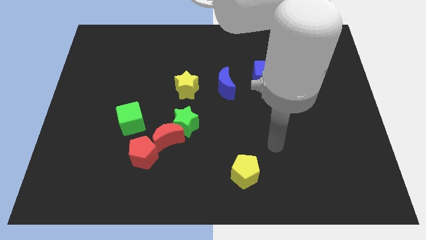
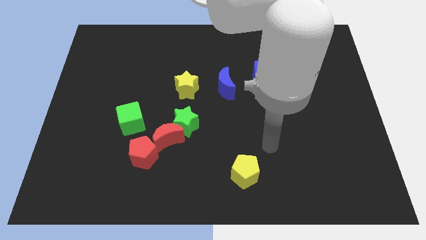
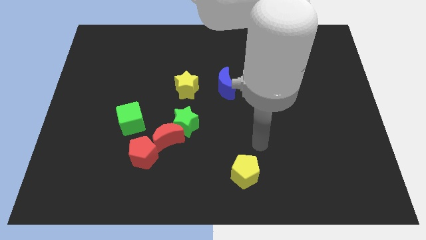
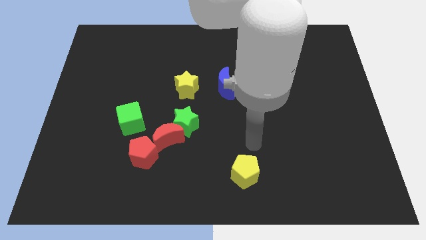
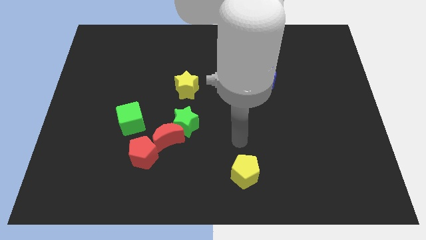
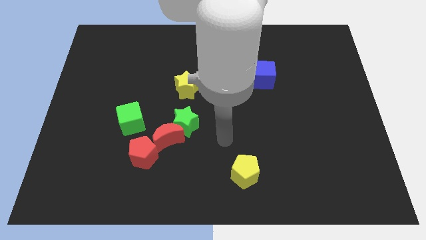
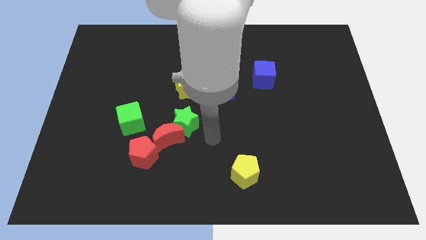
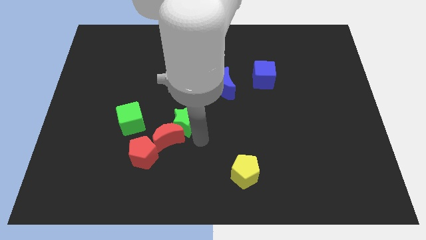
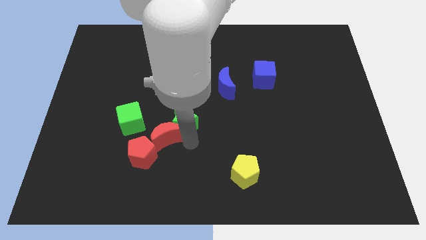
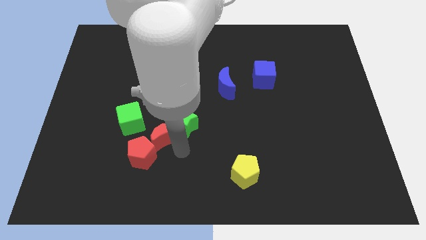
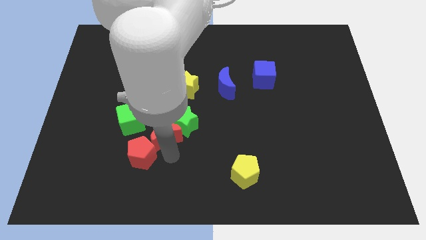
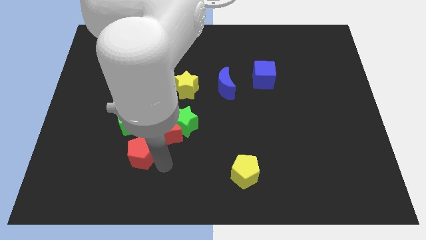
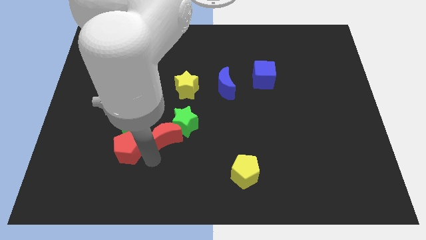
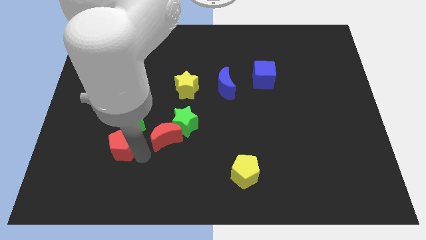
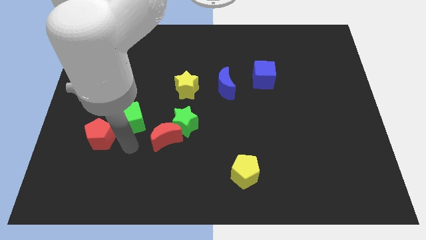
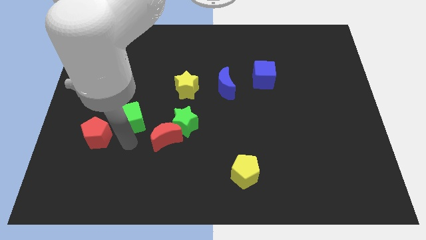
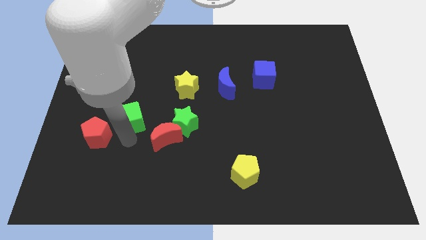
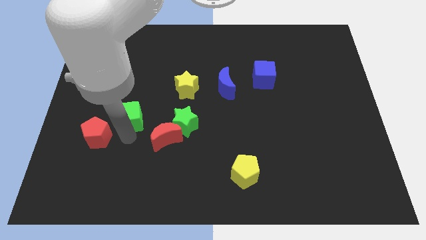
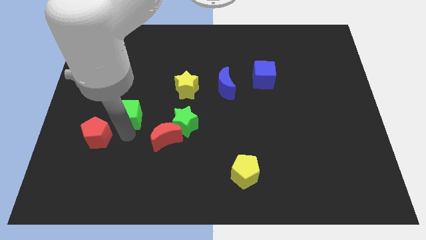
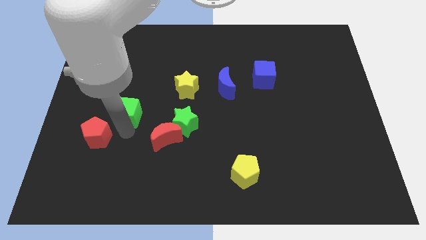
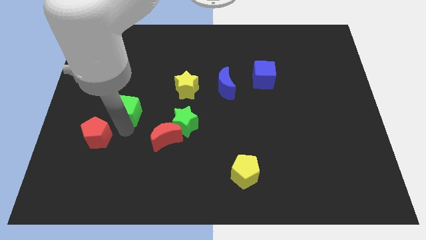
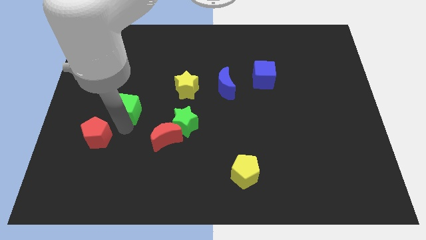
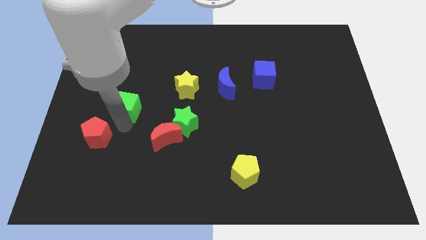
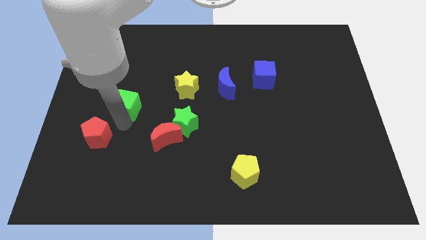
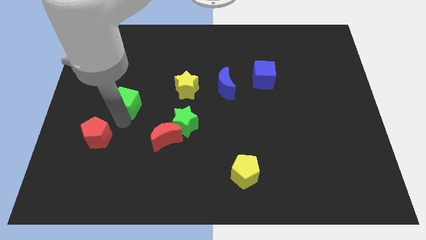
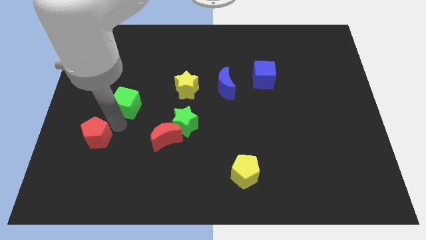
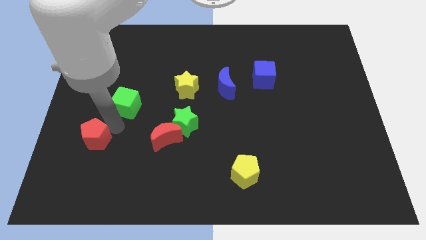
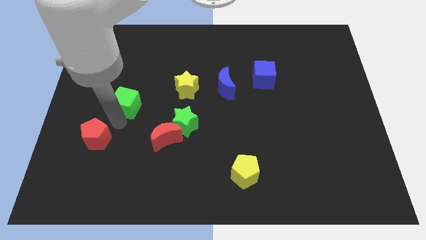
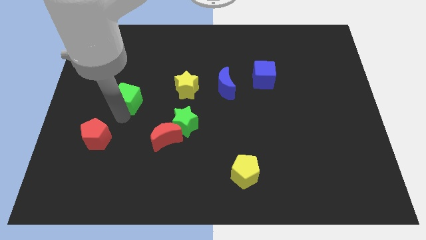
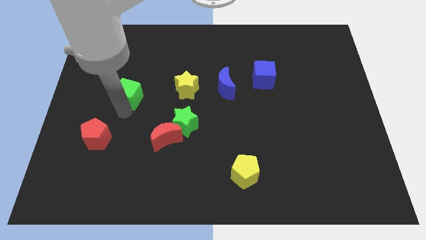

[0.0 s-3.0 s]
push the green cube somewhat upwards

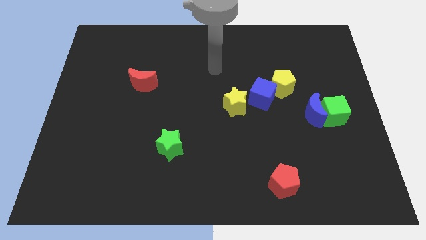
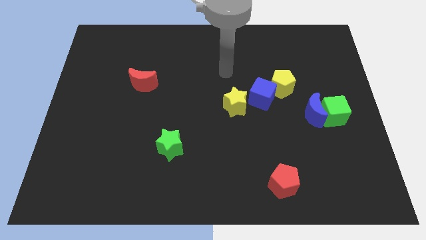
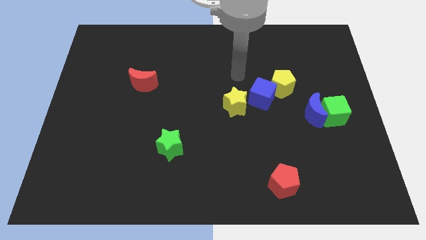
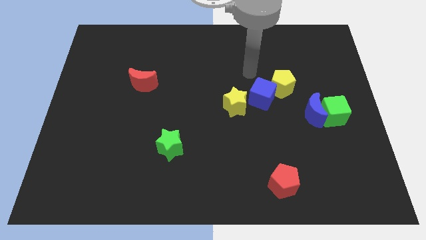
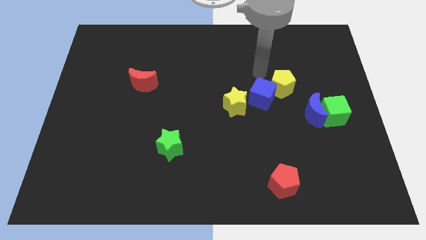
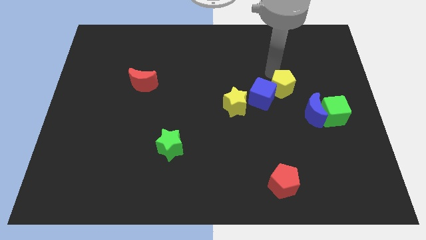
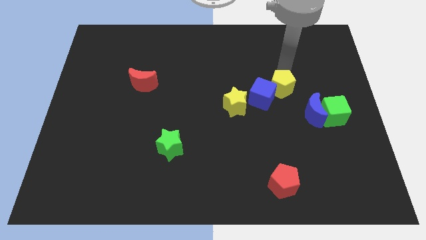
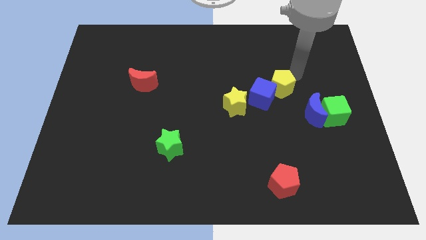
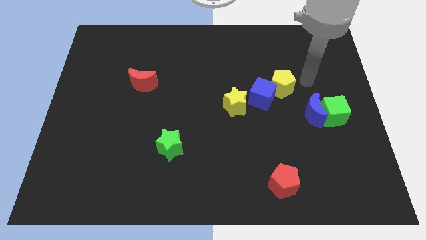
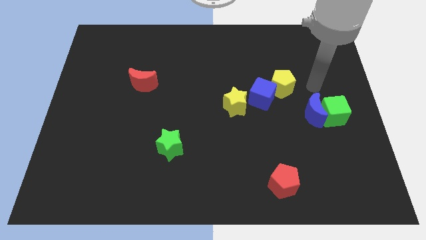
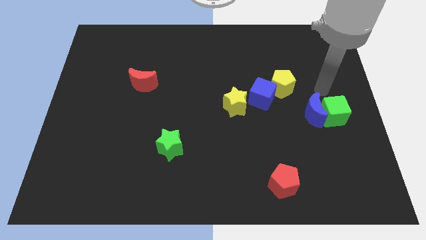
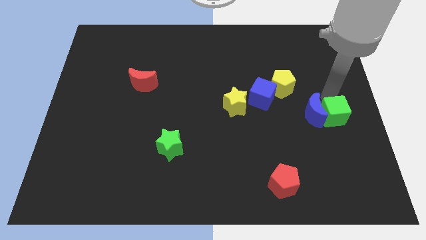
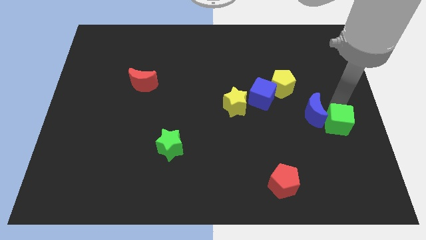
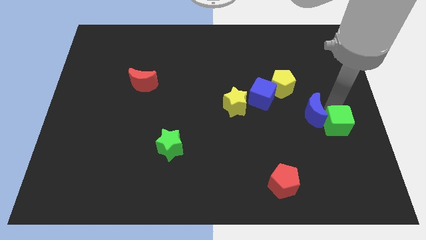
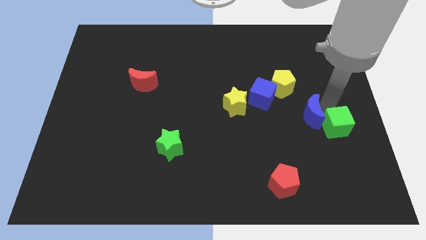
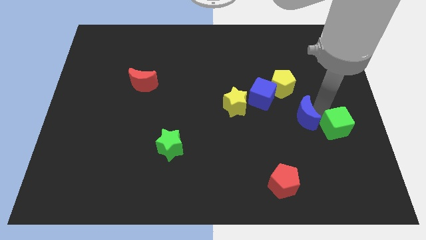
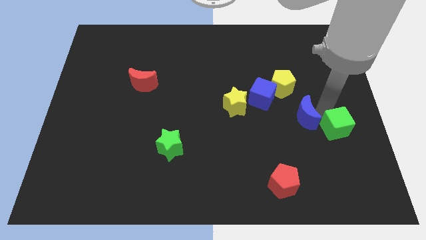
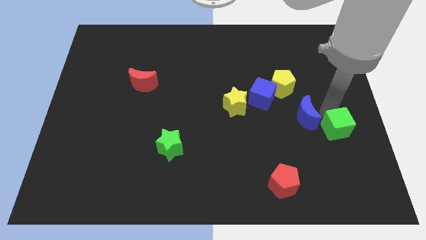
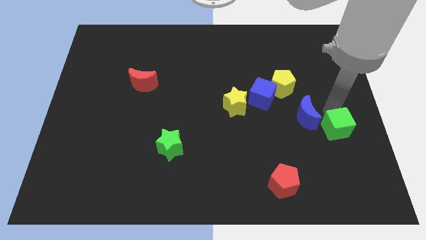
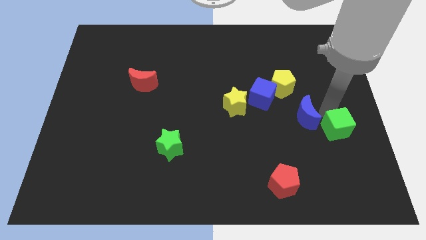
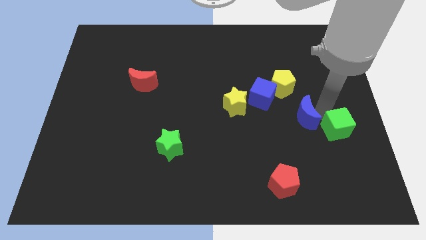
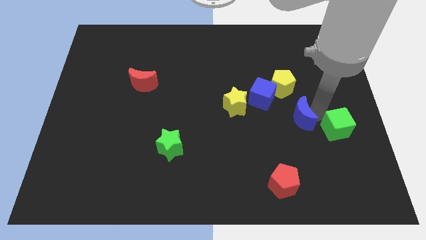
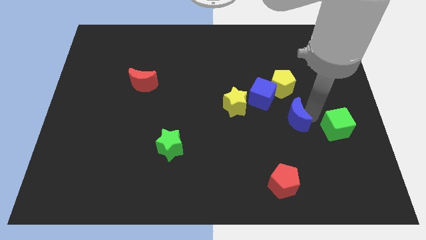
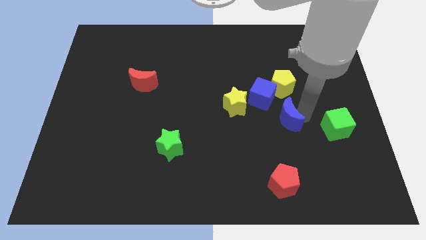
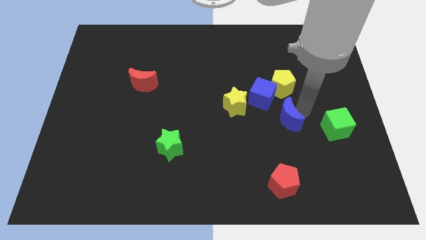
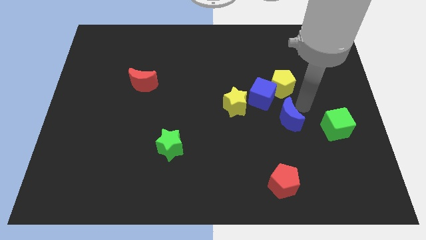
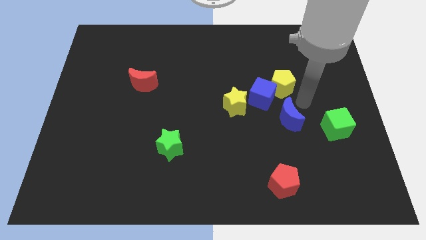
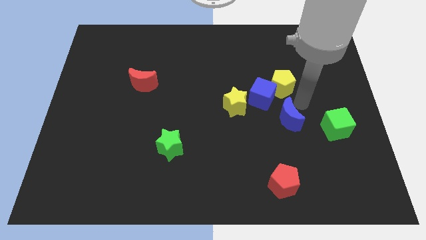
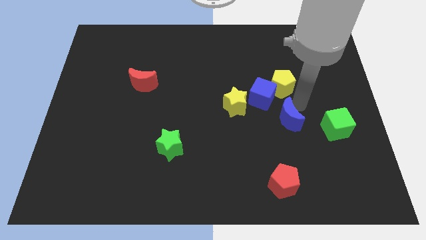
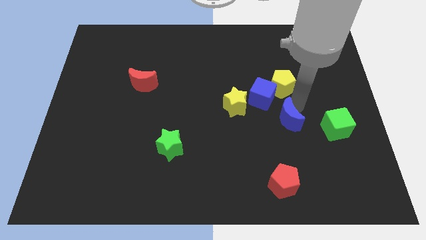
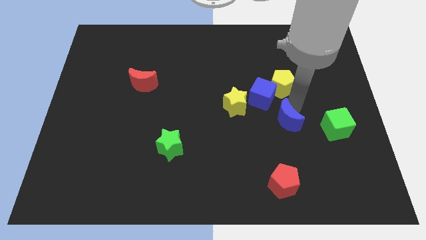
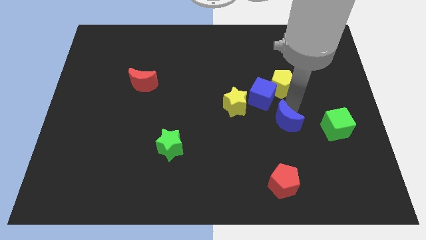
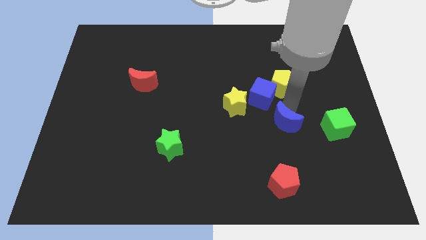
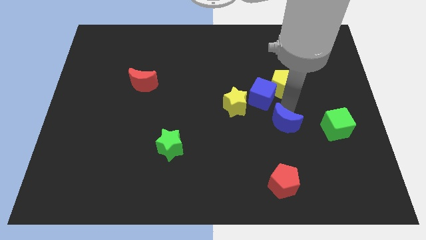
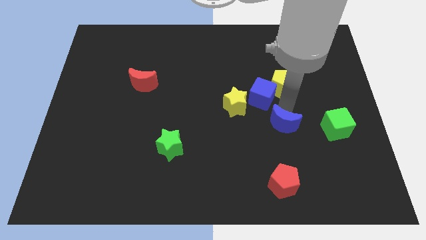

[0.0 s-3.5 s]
slightly slide the blue moon downwards and then left

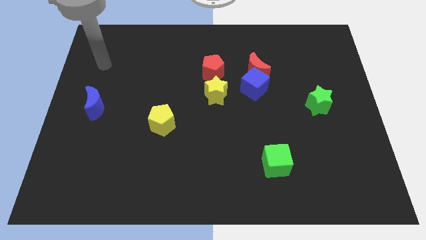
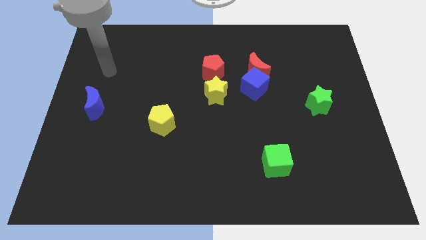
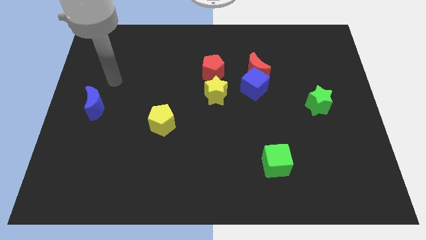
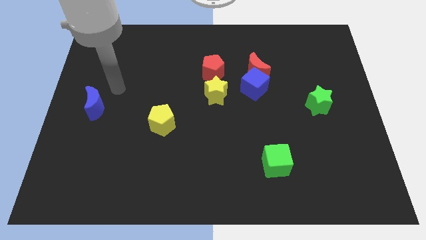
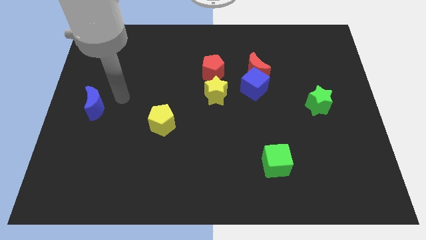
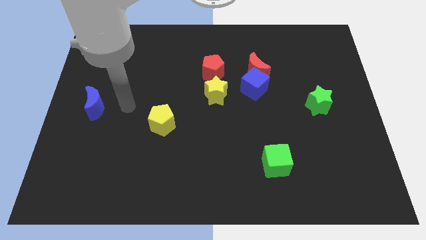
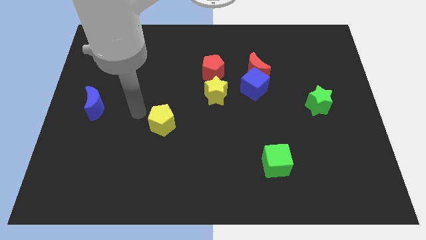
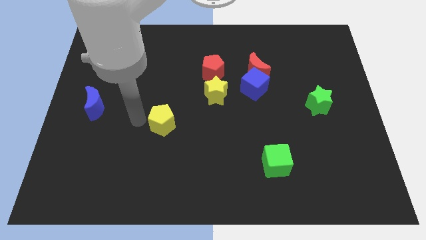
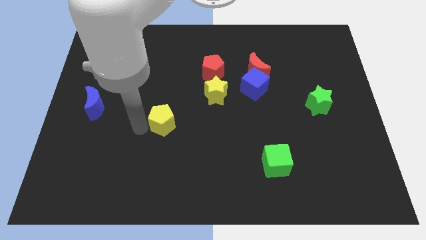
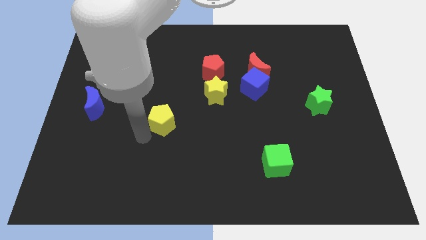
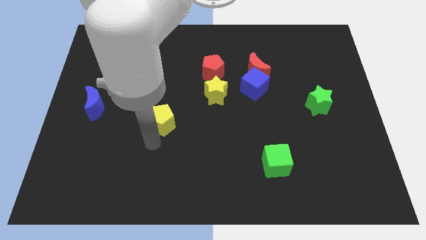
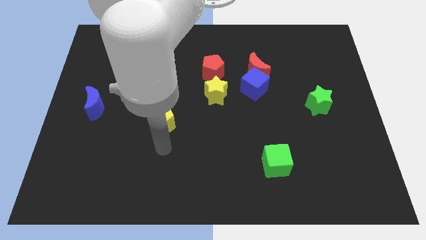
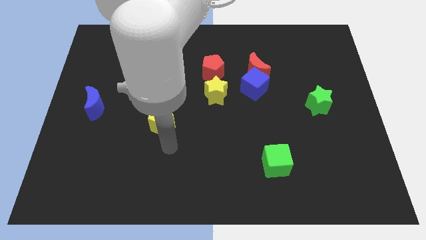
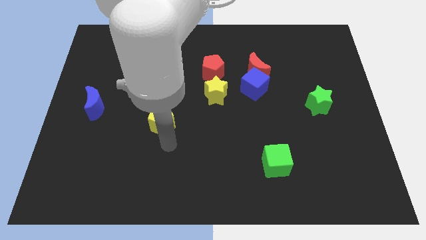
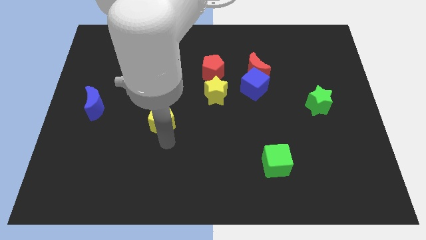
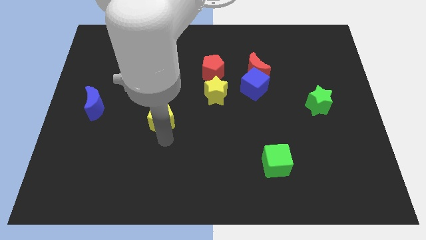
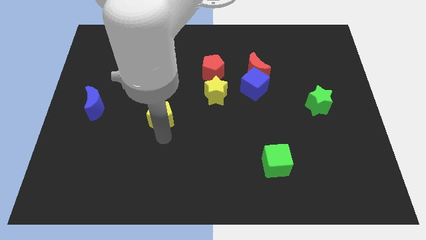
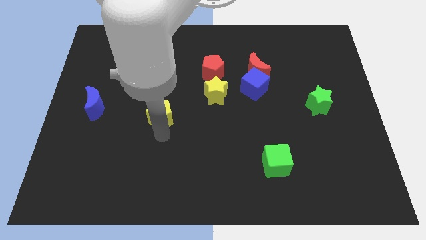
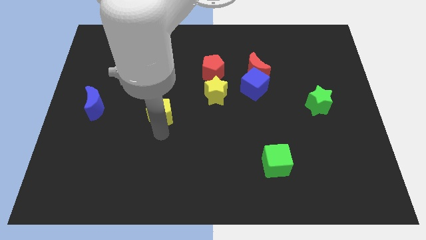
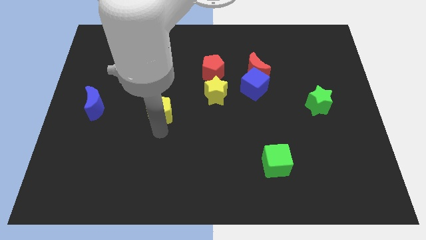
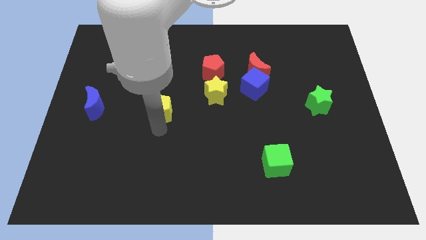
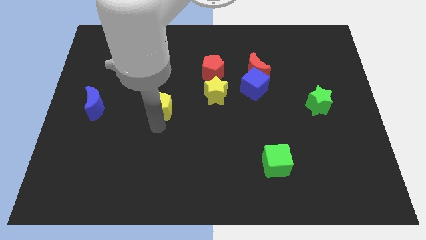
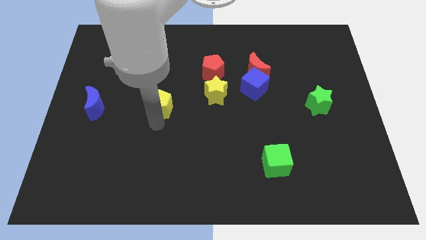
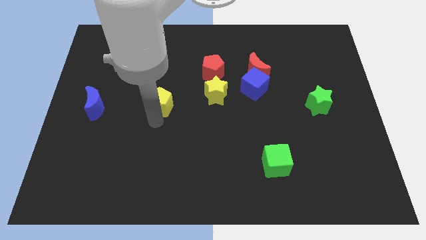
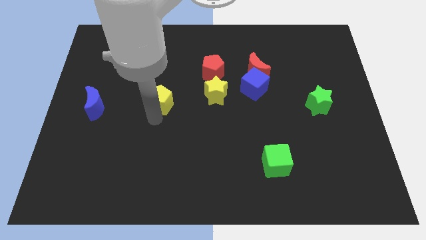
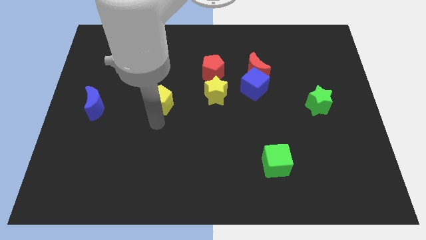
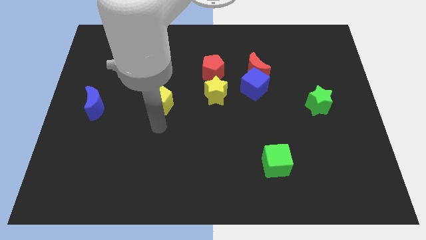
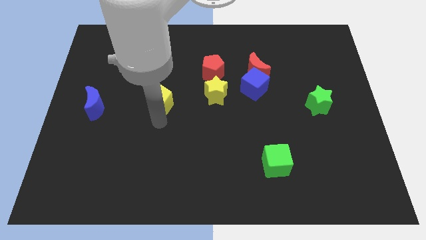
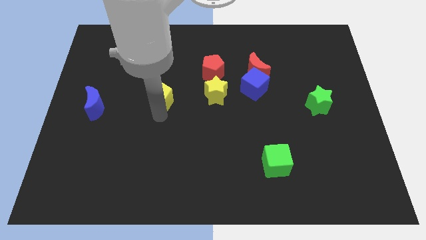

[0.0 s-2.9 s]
move the yellow pentagon upwards a little
